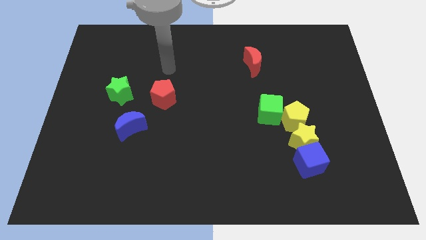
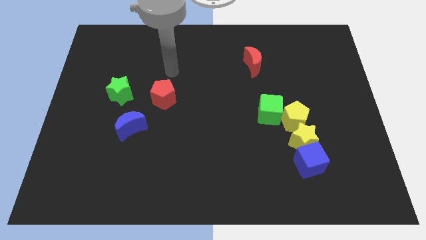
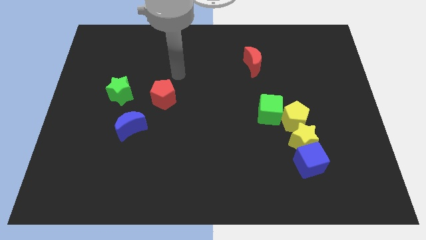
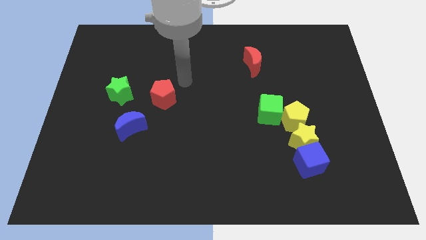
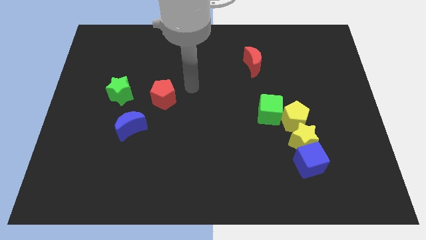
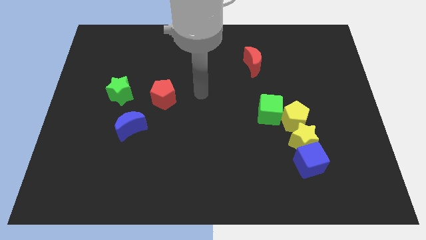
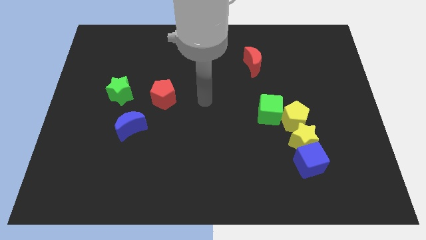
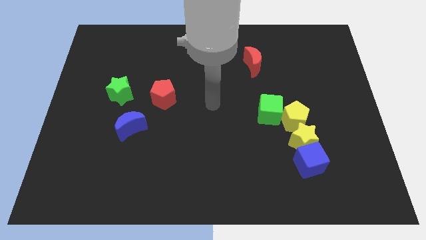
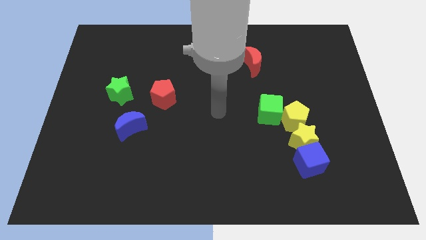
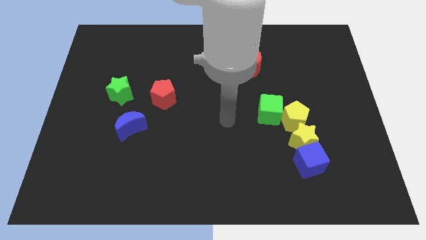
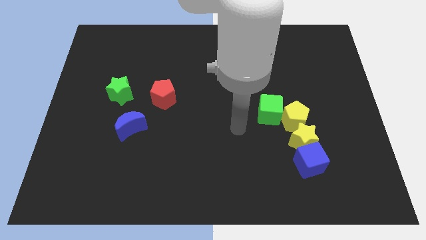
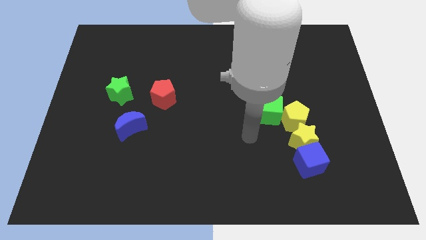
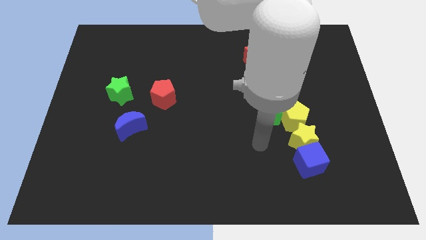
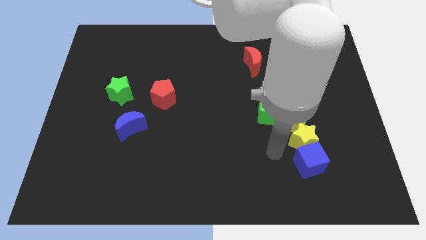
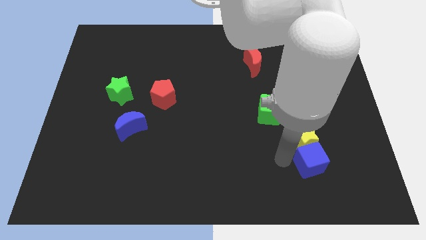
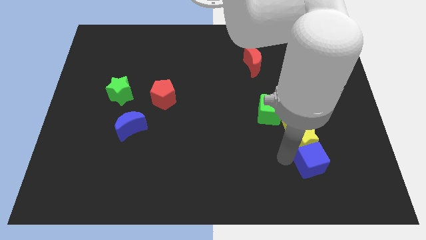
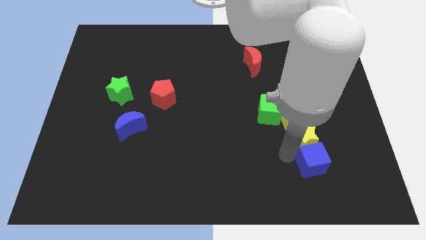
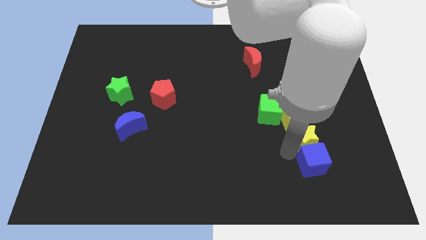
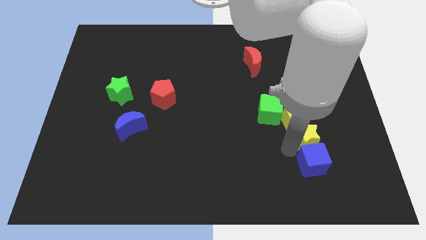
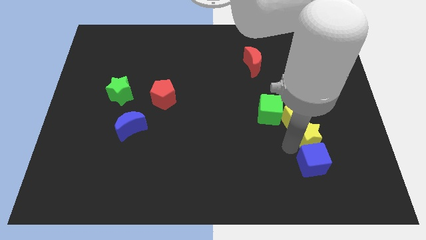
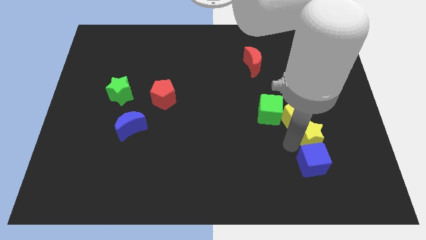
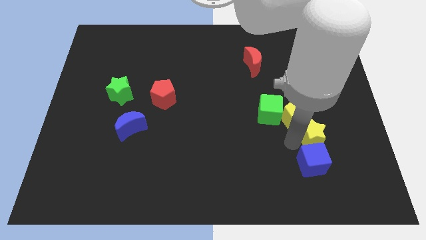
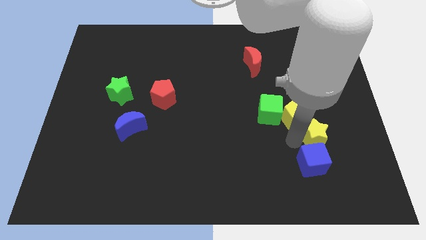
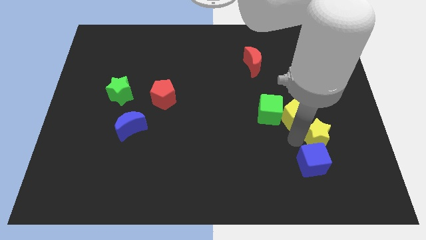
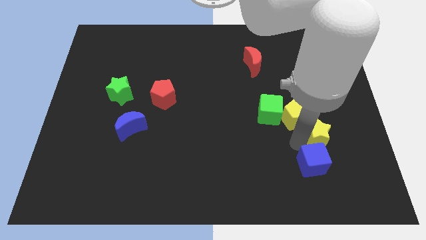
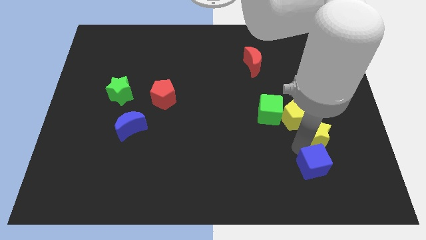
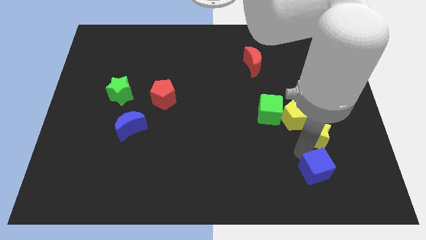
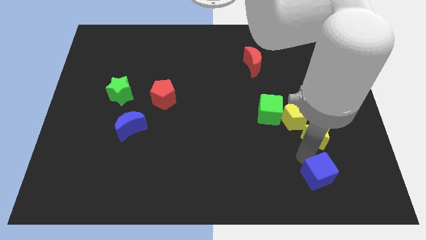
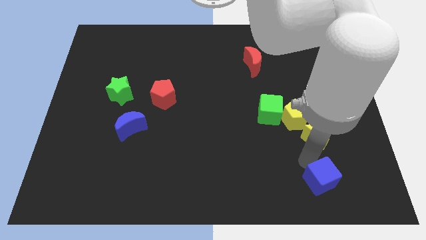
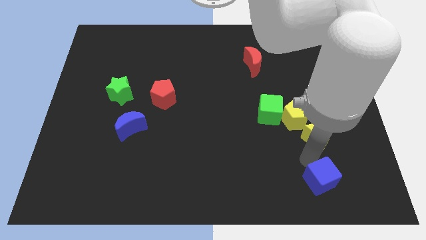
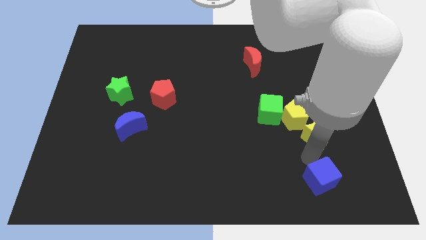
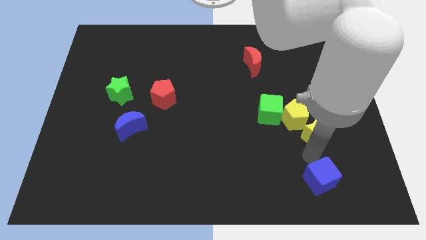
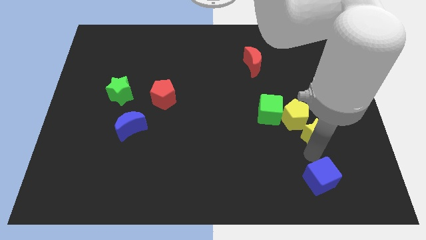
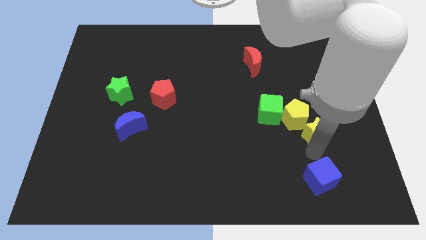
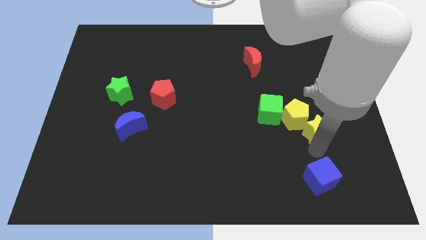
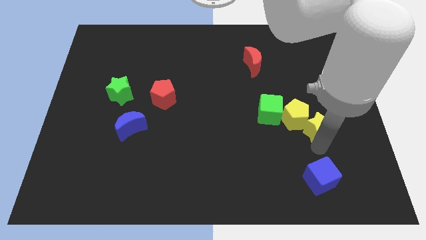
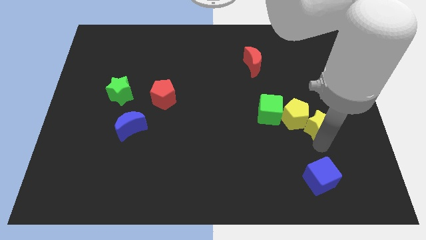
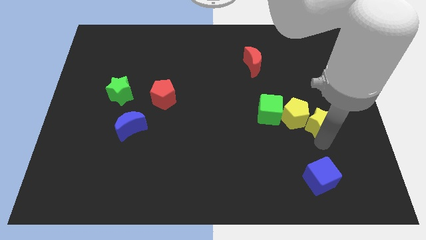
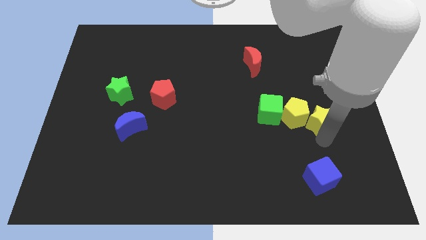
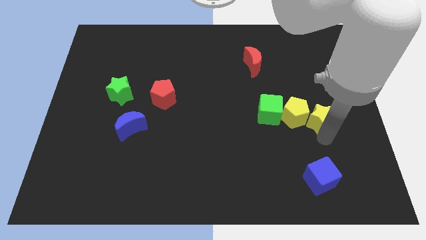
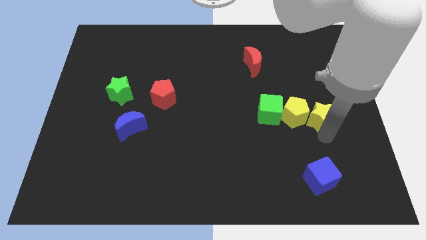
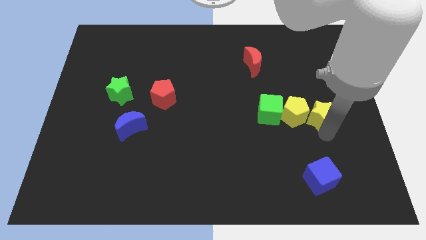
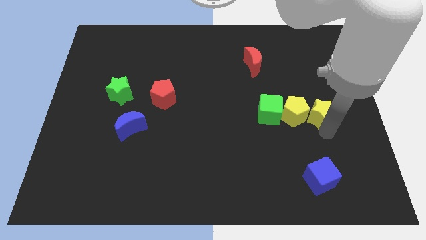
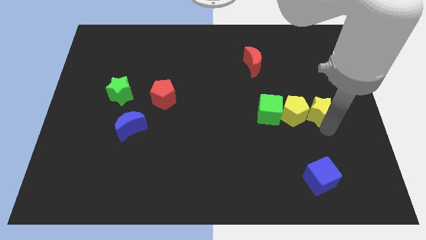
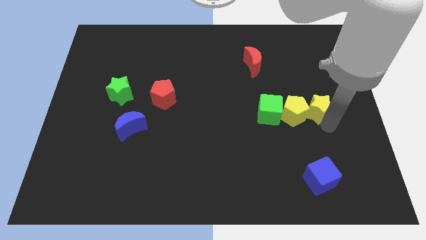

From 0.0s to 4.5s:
move the yellow star a little up

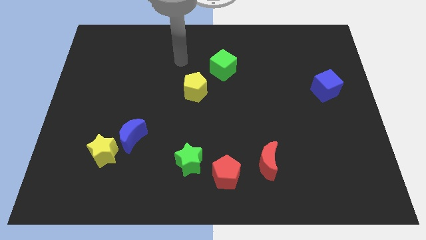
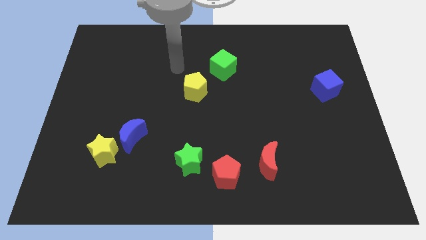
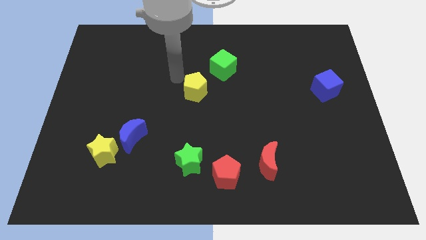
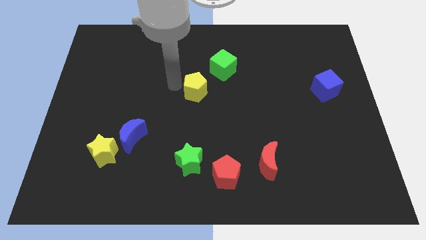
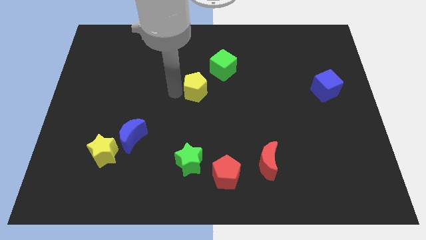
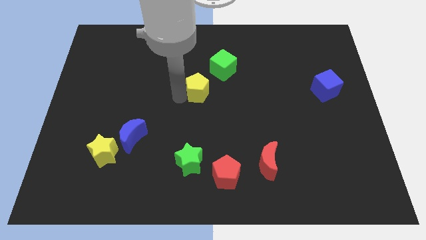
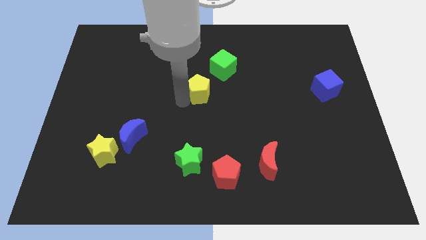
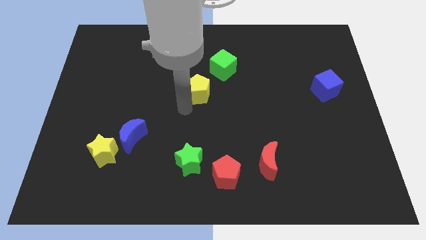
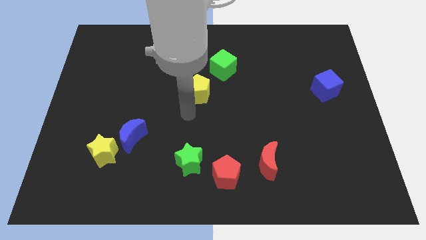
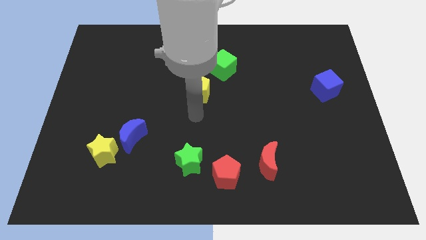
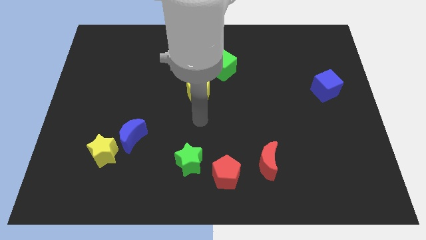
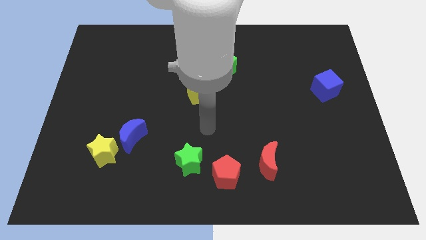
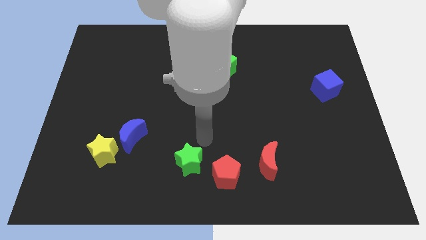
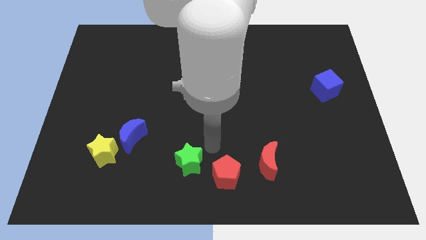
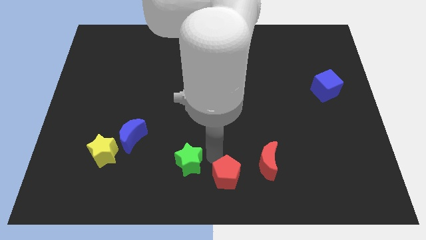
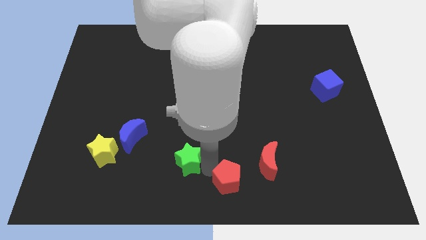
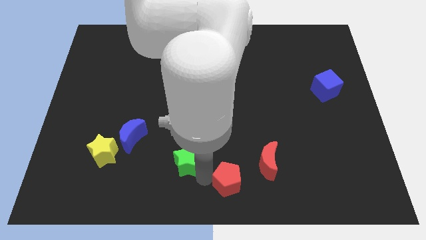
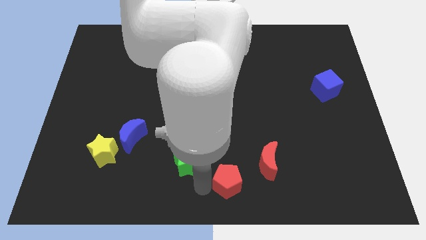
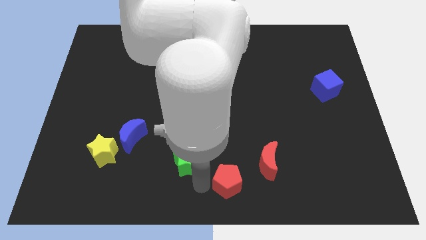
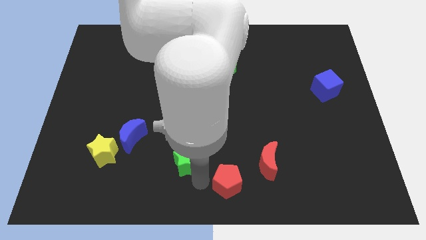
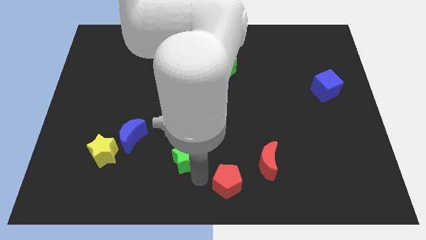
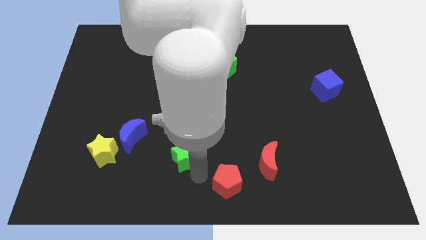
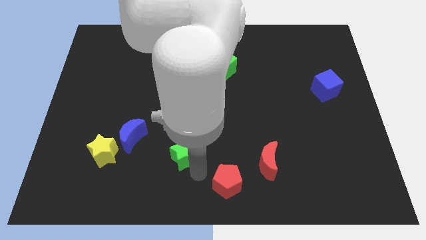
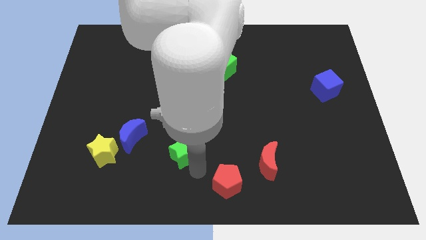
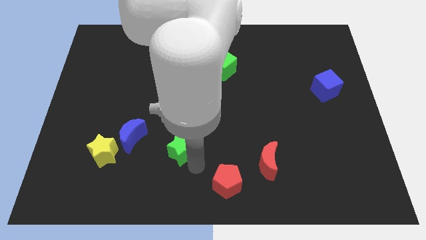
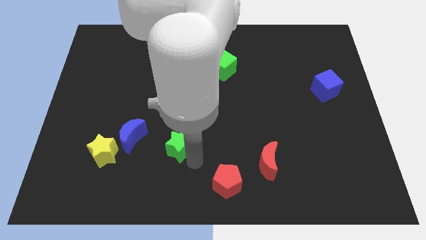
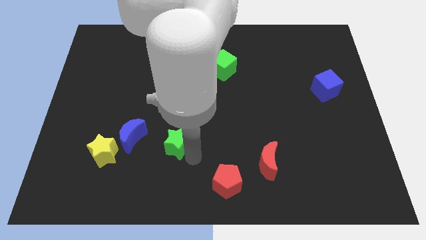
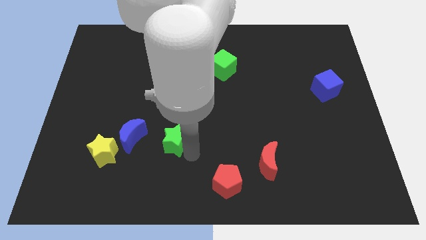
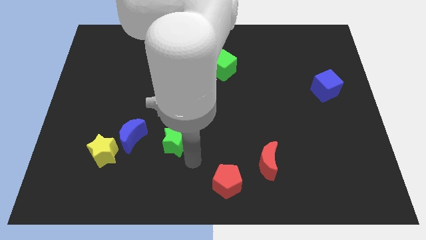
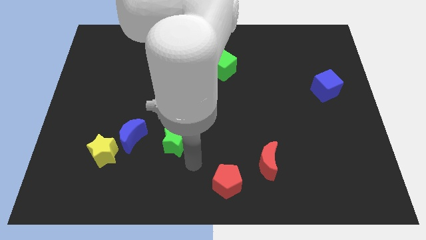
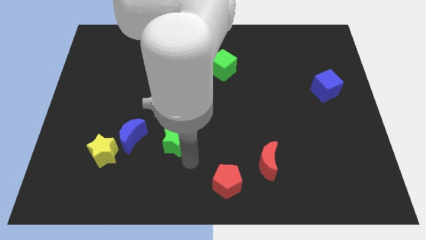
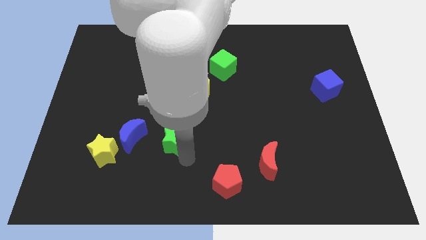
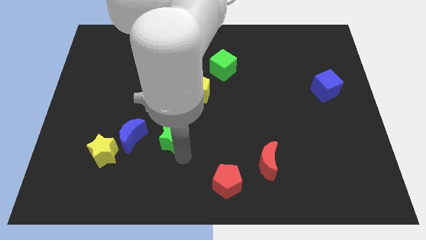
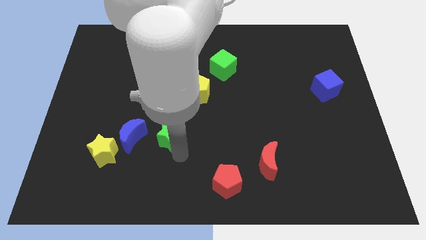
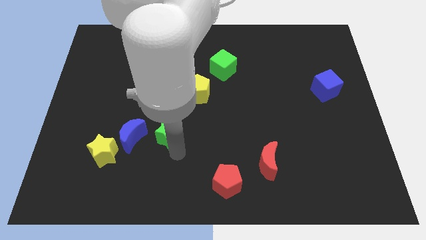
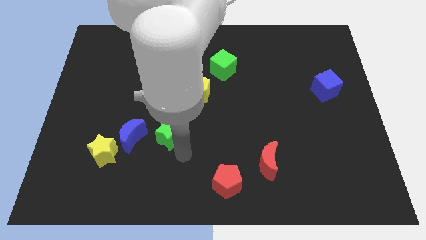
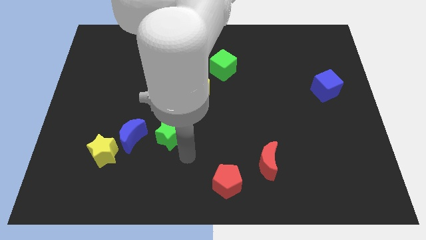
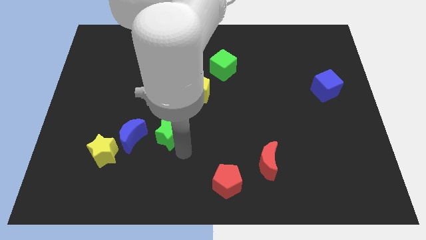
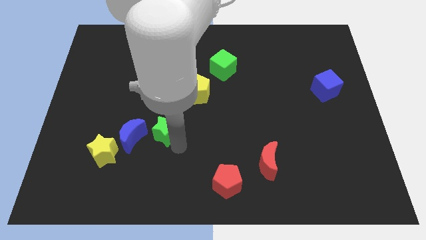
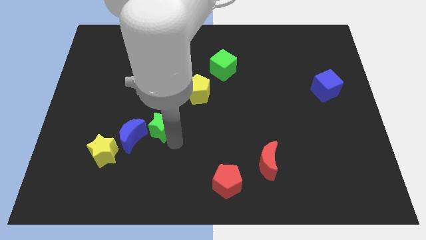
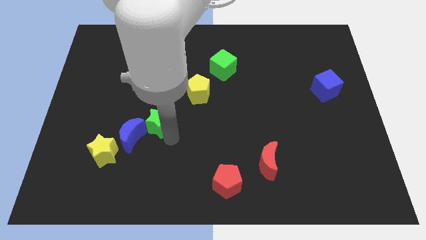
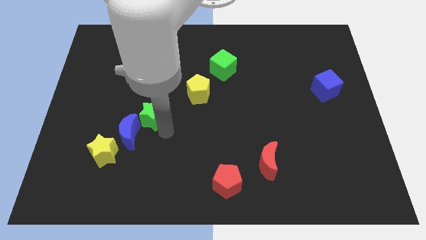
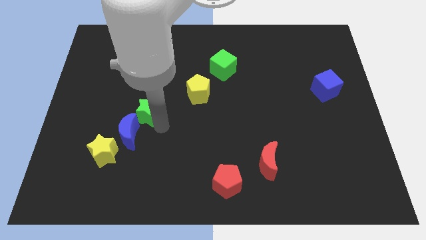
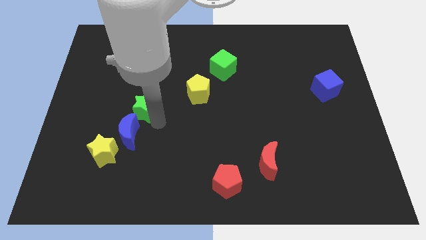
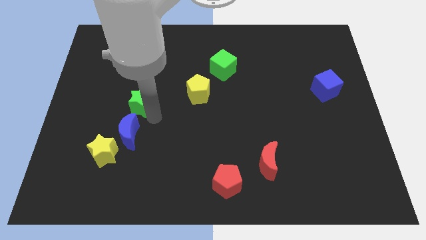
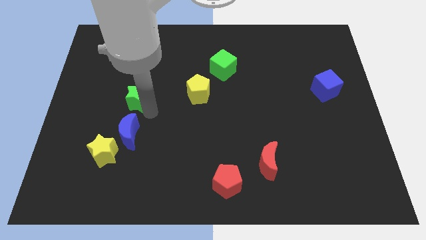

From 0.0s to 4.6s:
push the green star diagonally upwards and left
